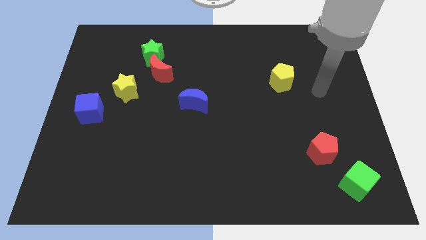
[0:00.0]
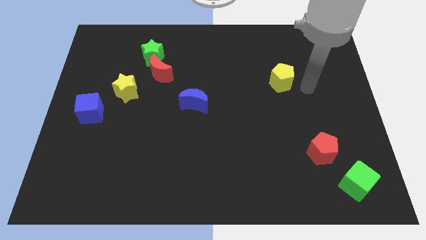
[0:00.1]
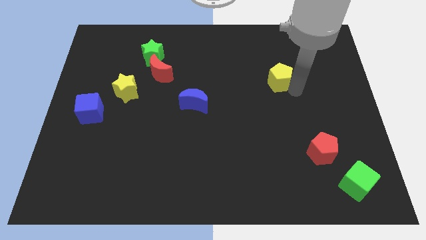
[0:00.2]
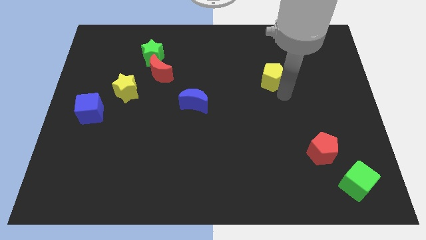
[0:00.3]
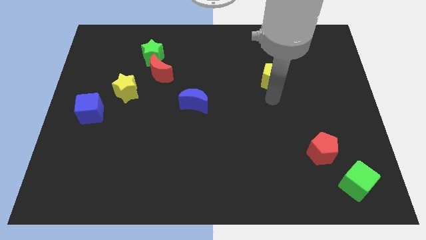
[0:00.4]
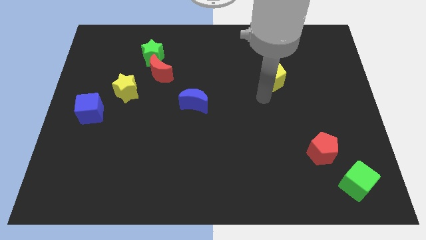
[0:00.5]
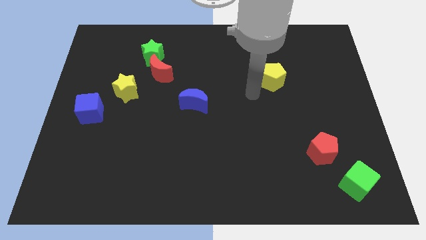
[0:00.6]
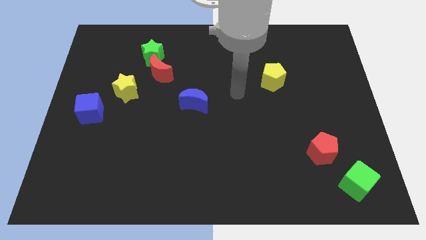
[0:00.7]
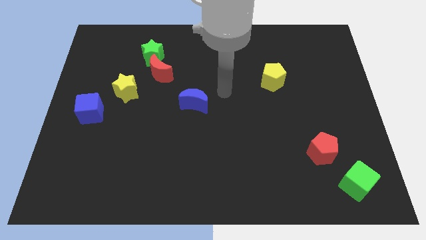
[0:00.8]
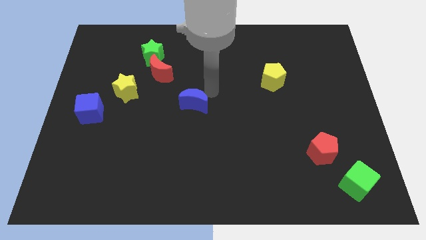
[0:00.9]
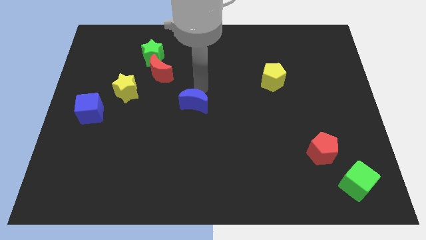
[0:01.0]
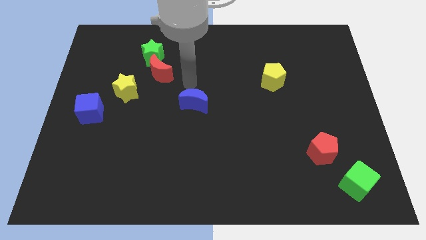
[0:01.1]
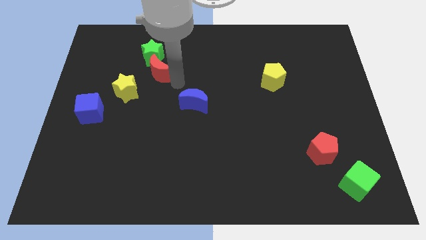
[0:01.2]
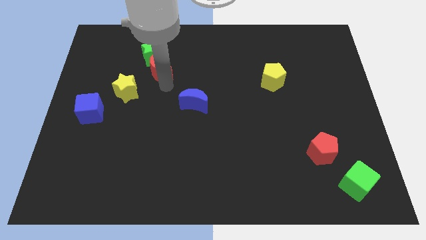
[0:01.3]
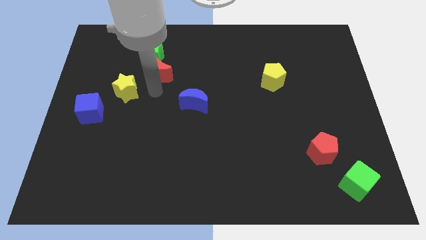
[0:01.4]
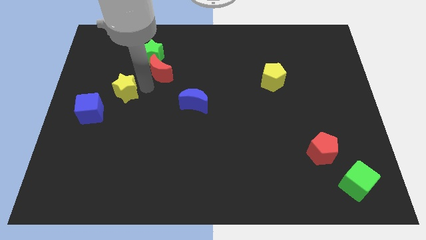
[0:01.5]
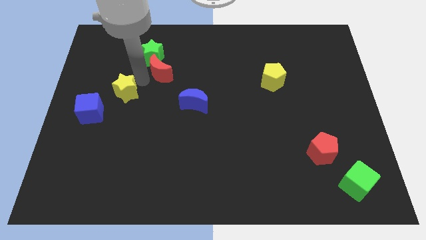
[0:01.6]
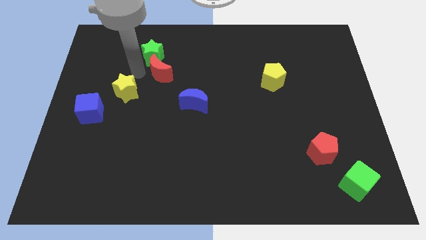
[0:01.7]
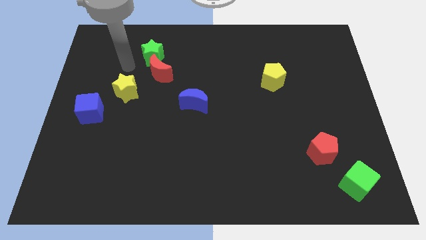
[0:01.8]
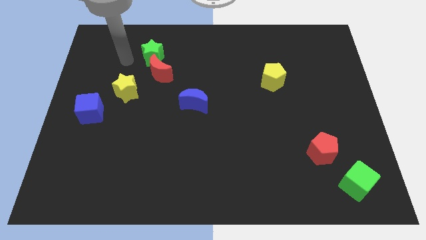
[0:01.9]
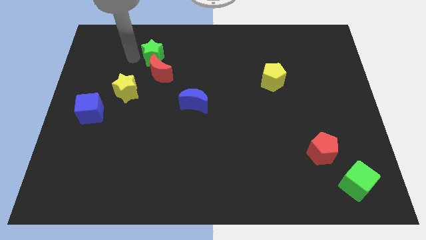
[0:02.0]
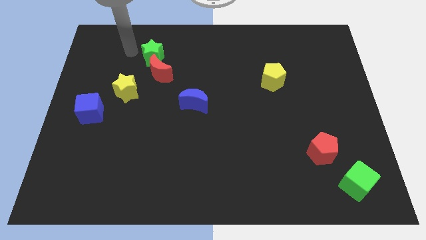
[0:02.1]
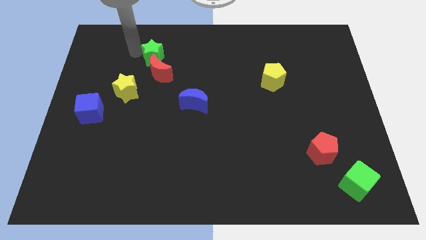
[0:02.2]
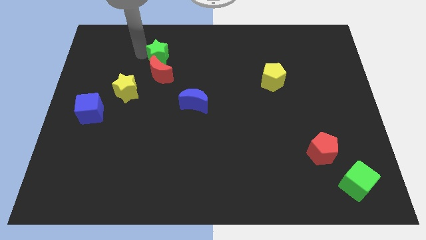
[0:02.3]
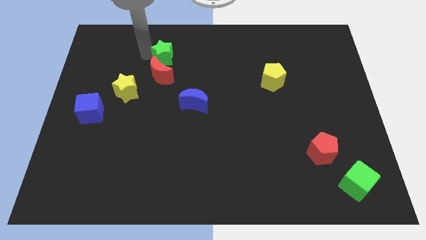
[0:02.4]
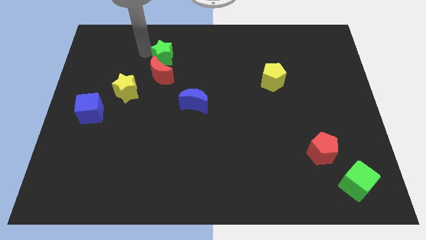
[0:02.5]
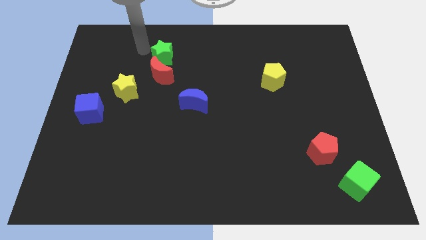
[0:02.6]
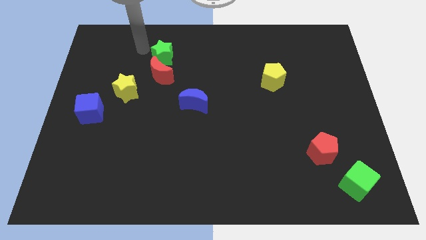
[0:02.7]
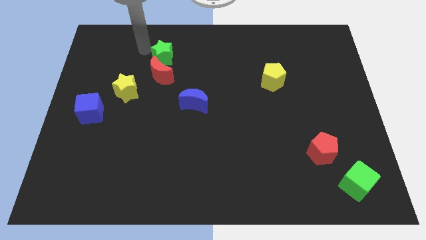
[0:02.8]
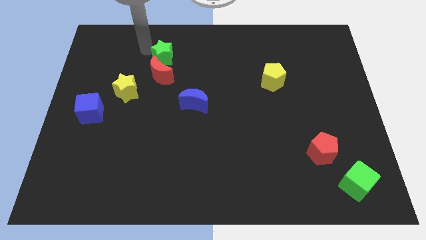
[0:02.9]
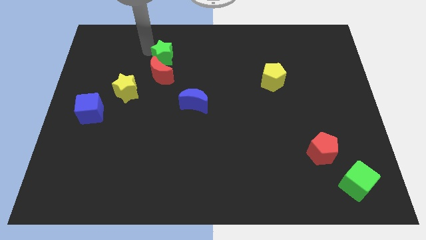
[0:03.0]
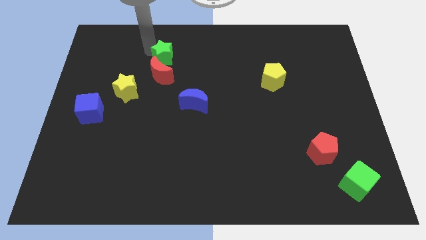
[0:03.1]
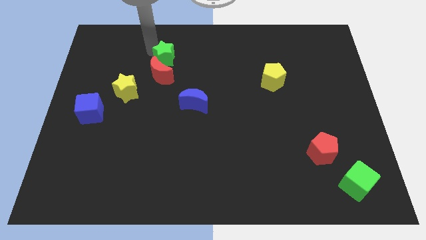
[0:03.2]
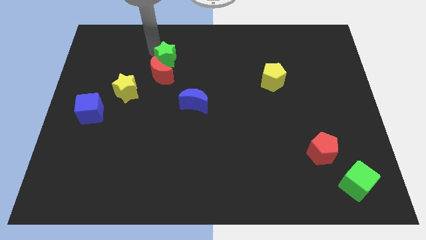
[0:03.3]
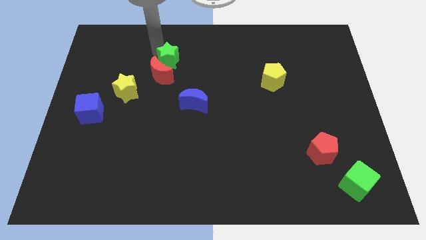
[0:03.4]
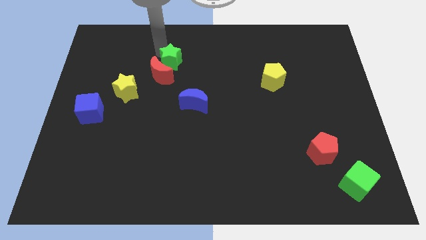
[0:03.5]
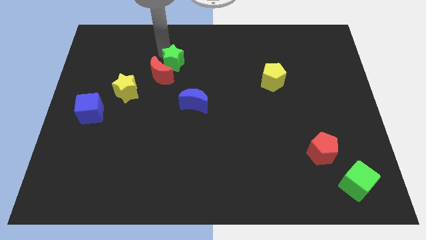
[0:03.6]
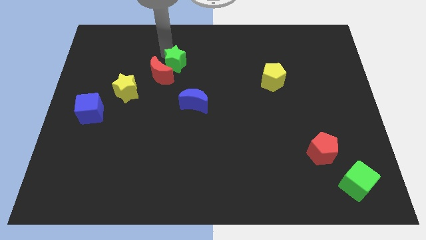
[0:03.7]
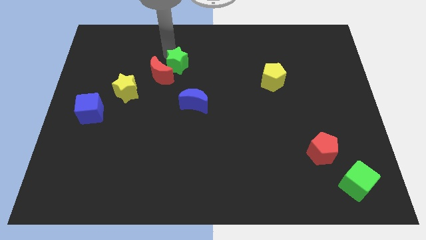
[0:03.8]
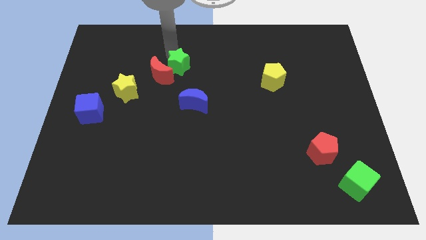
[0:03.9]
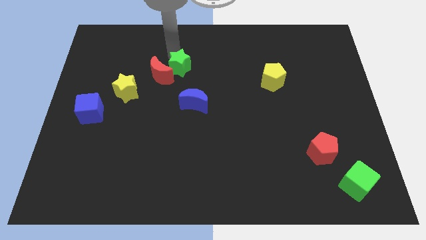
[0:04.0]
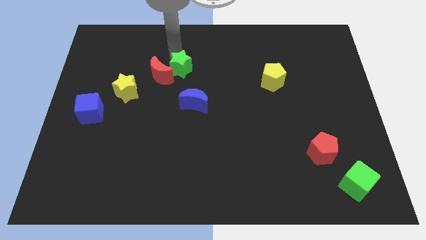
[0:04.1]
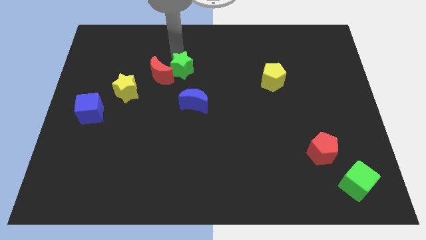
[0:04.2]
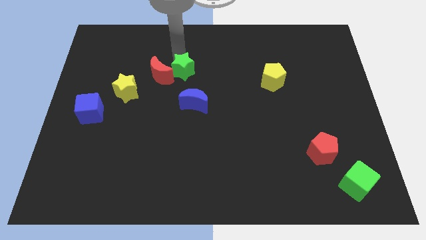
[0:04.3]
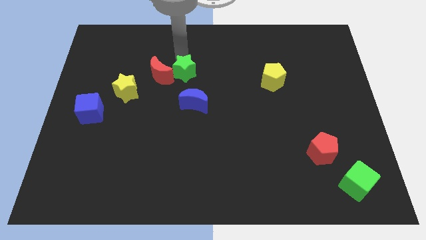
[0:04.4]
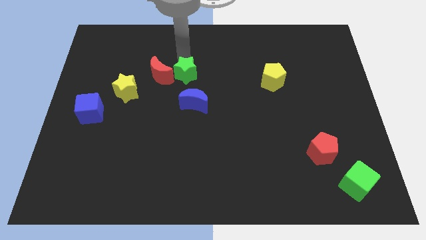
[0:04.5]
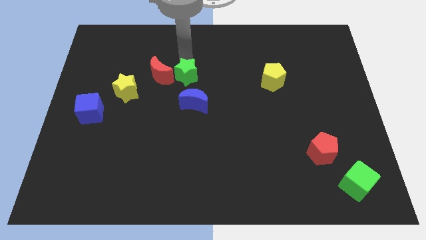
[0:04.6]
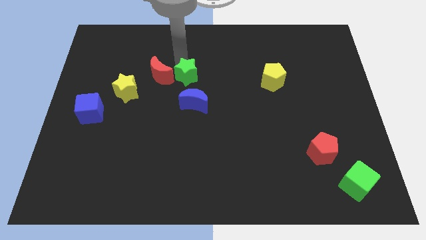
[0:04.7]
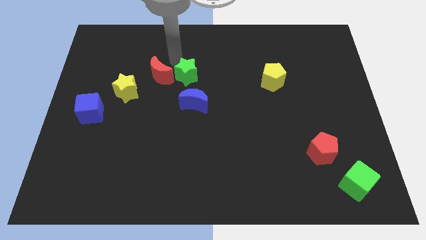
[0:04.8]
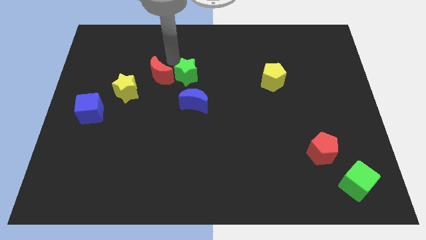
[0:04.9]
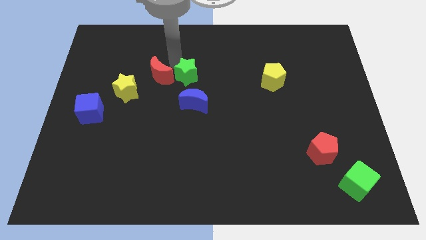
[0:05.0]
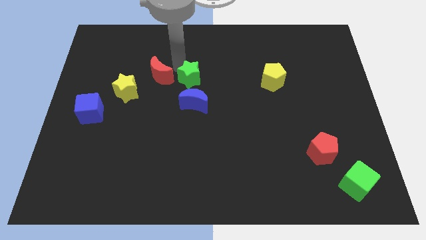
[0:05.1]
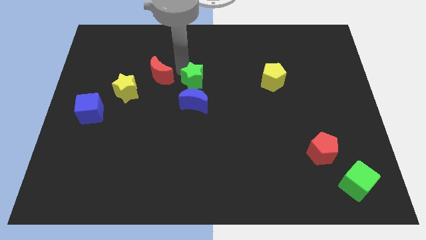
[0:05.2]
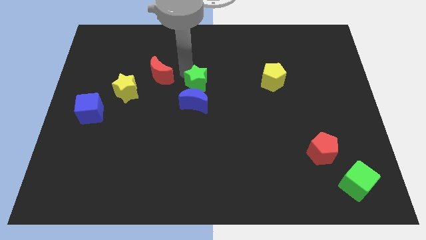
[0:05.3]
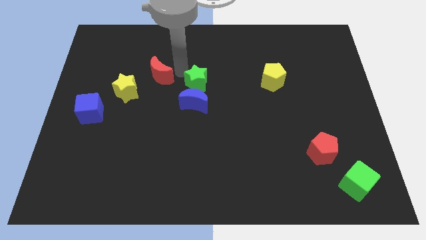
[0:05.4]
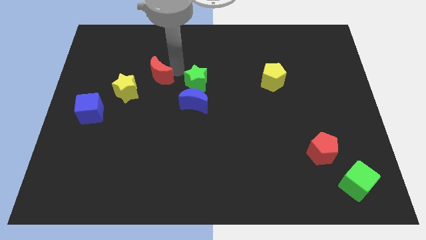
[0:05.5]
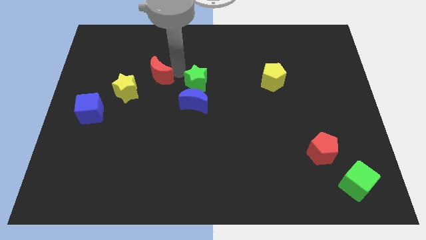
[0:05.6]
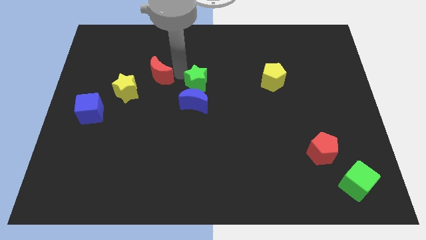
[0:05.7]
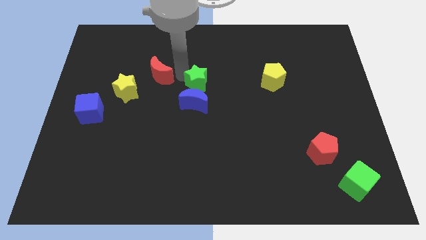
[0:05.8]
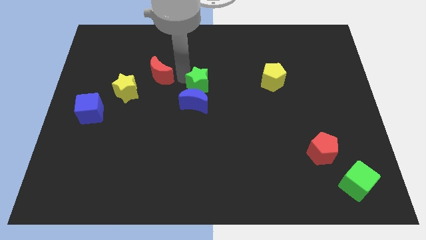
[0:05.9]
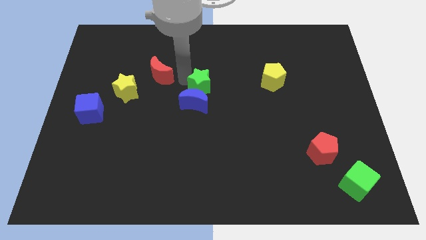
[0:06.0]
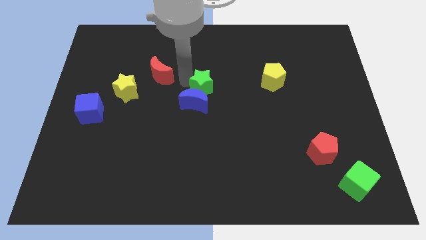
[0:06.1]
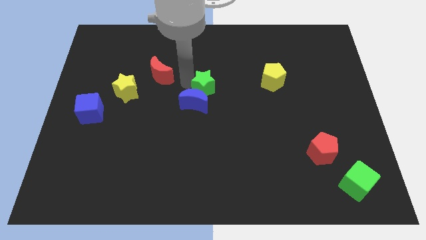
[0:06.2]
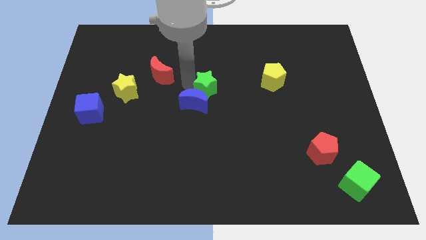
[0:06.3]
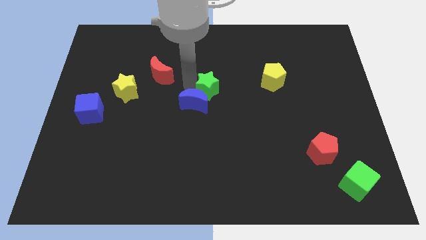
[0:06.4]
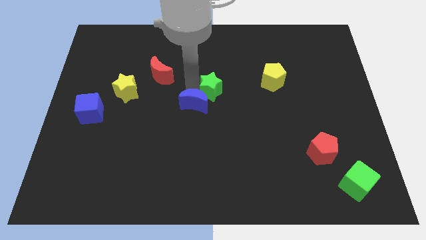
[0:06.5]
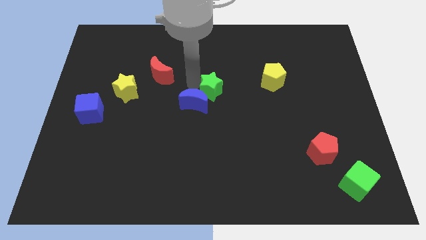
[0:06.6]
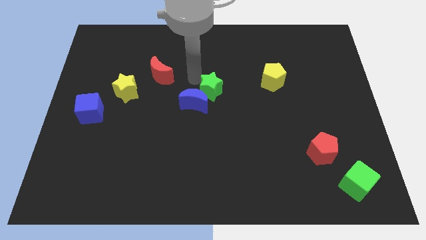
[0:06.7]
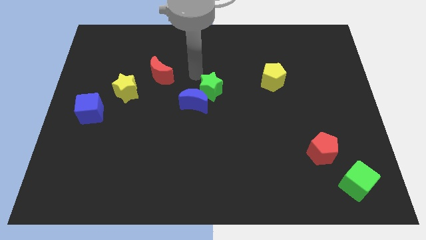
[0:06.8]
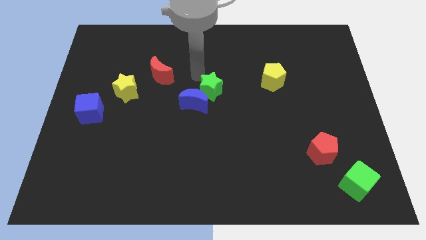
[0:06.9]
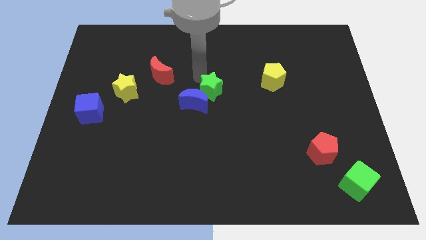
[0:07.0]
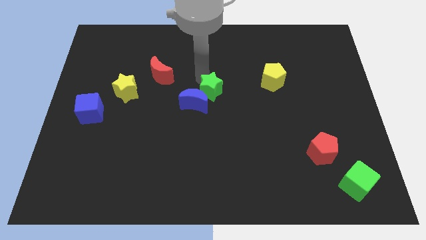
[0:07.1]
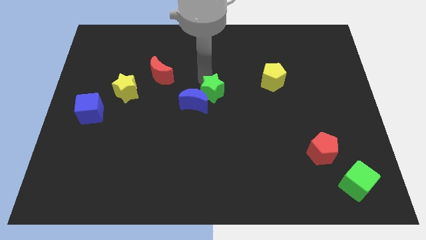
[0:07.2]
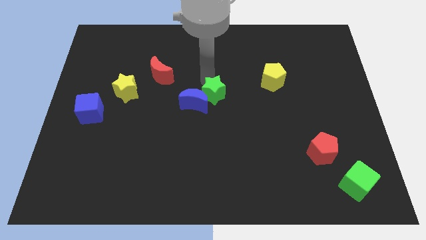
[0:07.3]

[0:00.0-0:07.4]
push the green star downwards and right

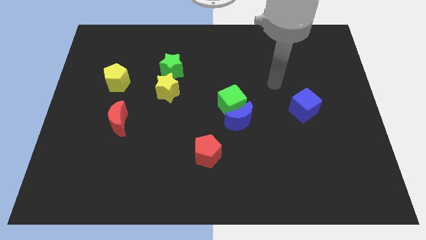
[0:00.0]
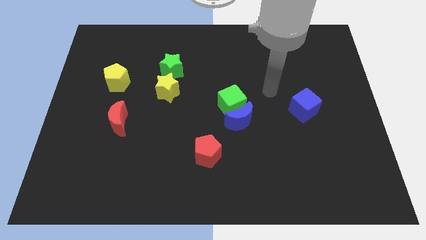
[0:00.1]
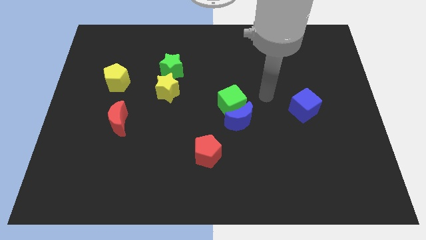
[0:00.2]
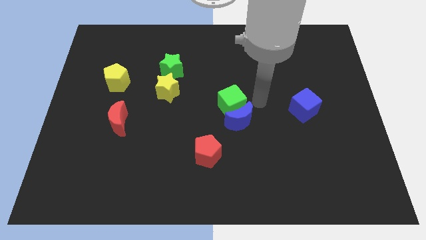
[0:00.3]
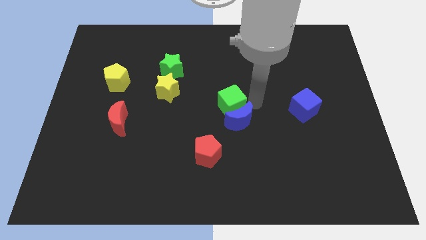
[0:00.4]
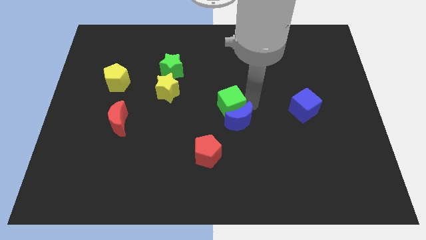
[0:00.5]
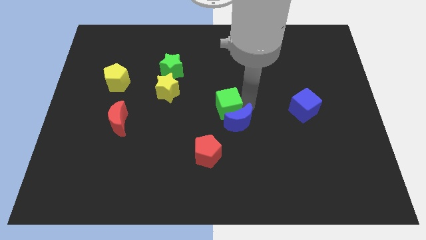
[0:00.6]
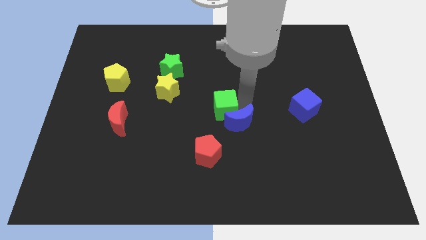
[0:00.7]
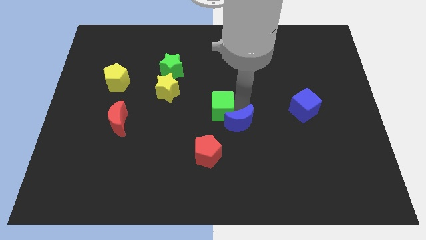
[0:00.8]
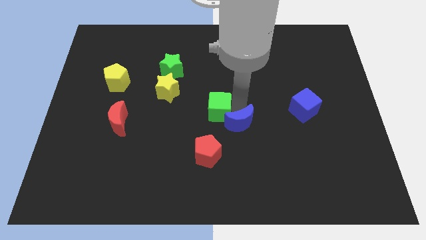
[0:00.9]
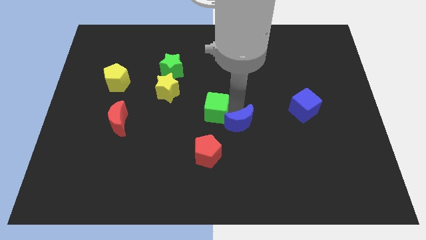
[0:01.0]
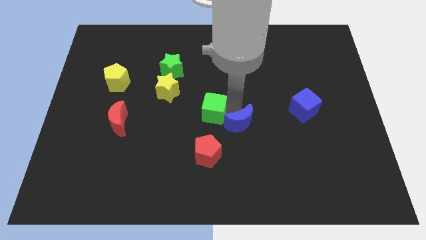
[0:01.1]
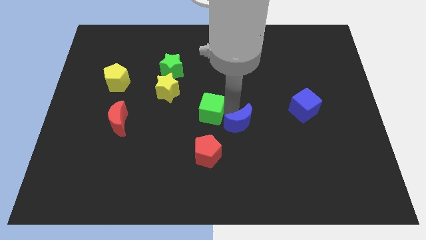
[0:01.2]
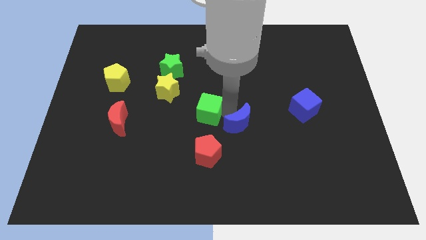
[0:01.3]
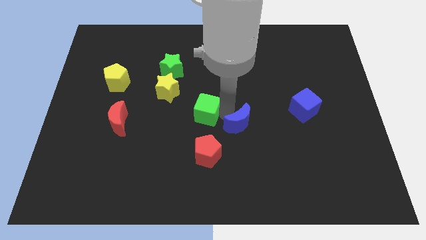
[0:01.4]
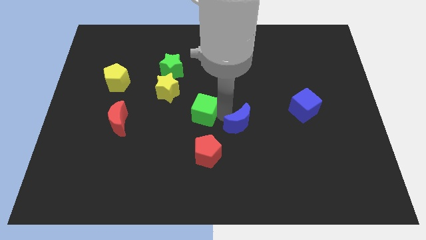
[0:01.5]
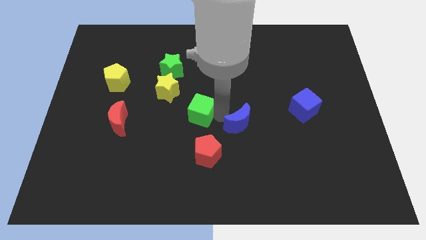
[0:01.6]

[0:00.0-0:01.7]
move the green cube a little bit left
